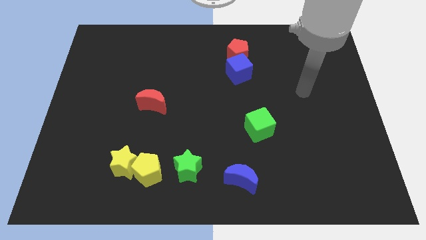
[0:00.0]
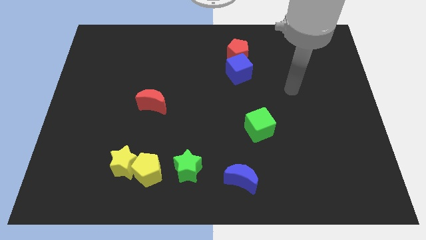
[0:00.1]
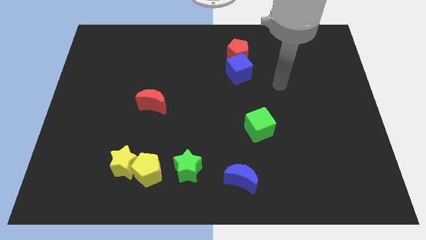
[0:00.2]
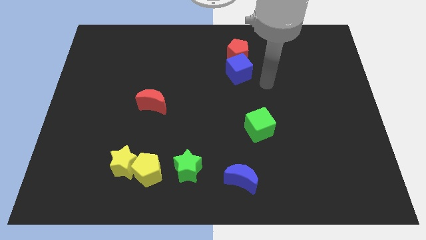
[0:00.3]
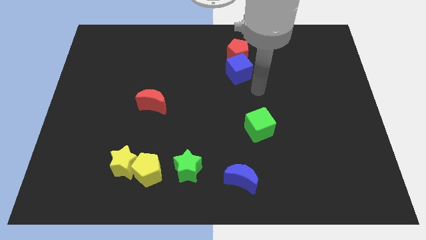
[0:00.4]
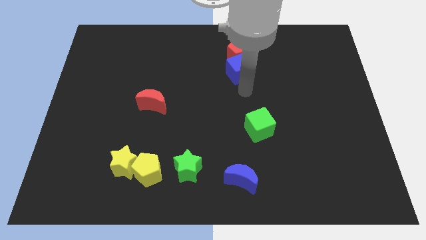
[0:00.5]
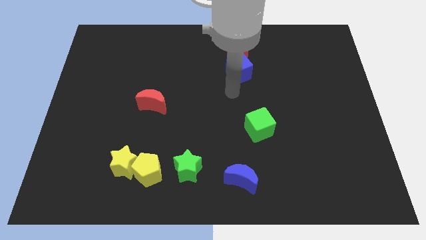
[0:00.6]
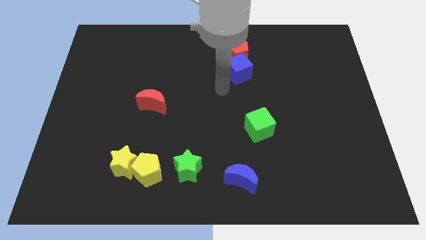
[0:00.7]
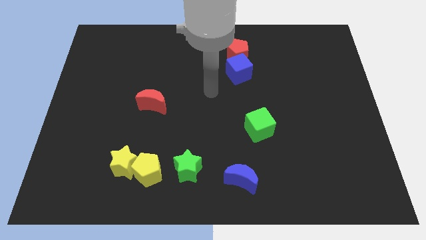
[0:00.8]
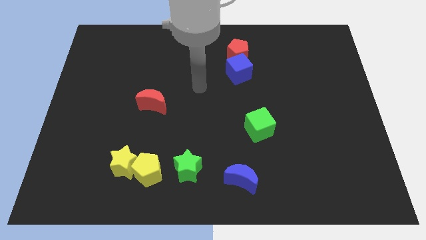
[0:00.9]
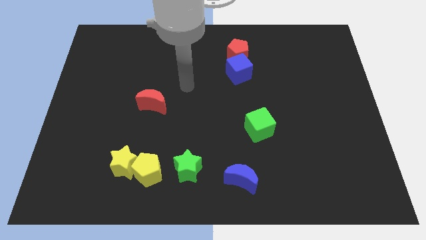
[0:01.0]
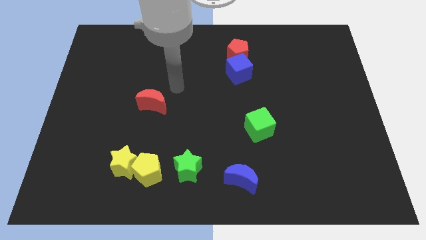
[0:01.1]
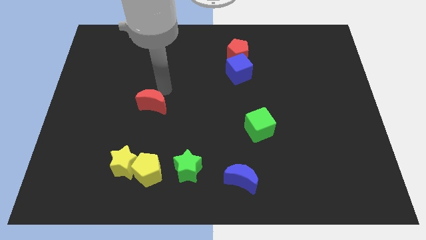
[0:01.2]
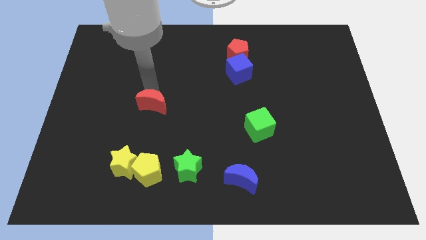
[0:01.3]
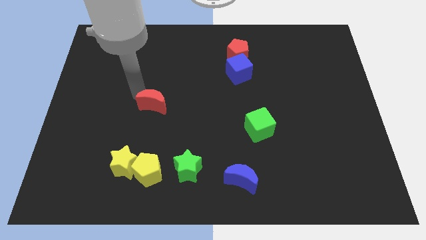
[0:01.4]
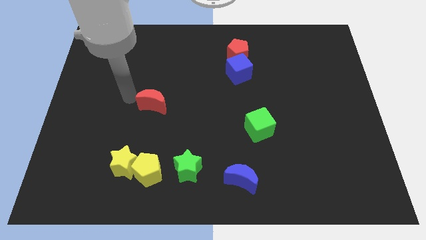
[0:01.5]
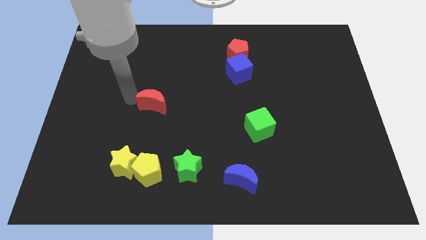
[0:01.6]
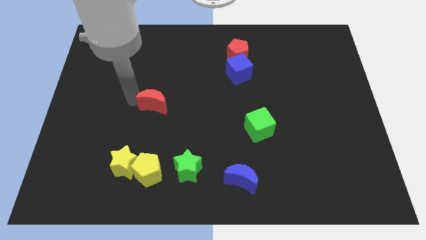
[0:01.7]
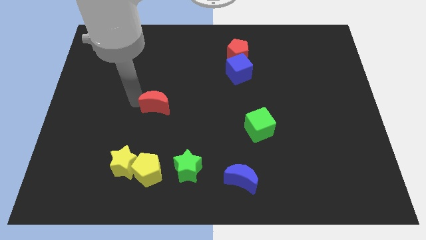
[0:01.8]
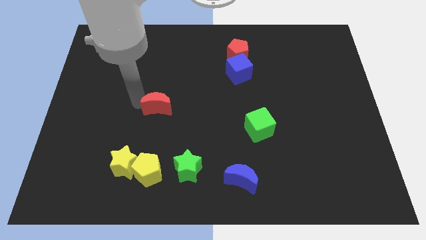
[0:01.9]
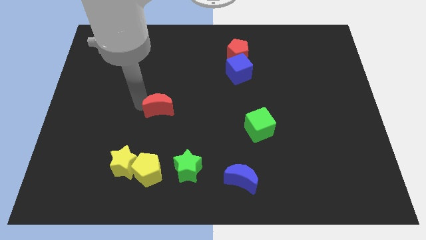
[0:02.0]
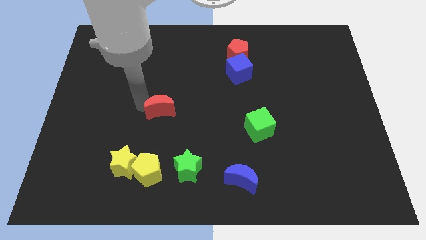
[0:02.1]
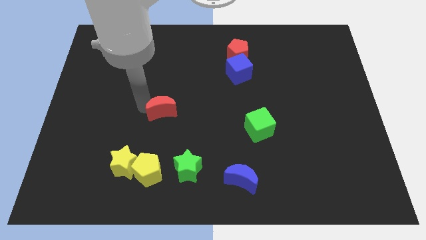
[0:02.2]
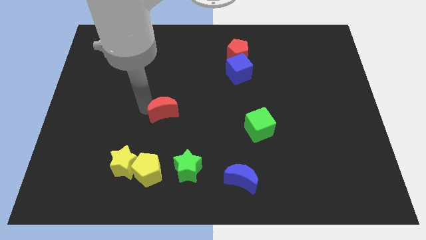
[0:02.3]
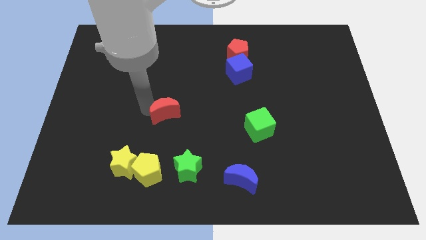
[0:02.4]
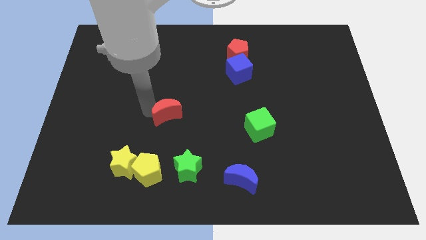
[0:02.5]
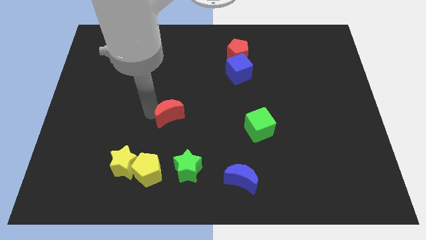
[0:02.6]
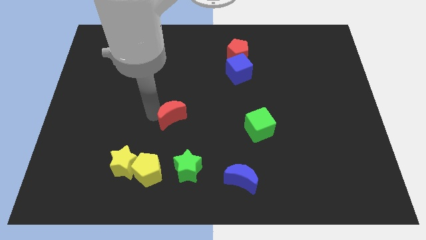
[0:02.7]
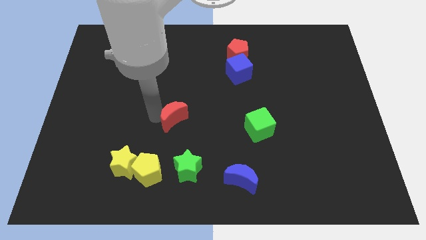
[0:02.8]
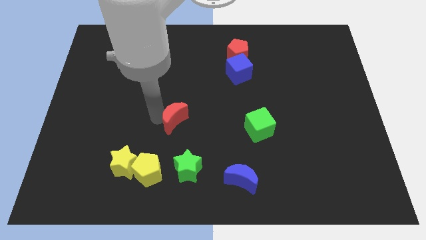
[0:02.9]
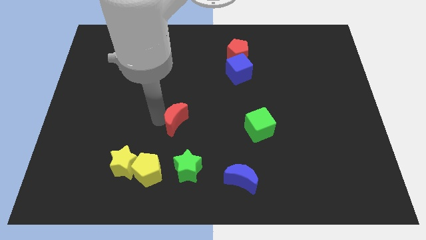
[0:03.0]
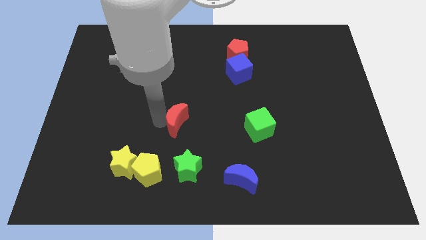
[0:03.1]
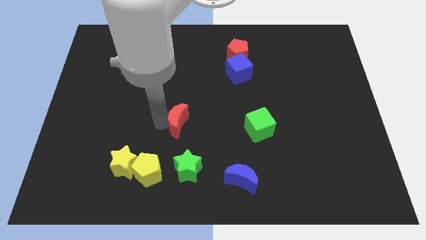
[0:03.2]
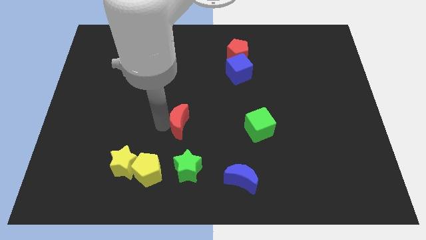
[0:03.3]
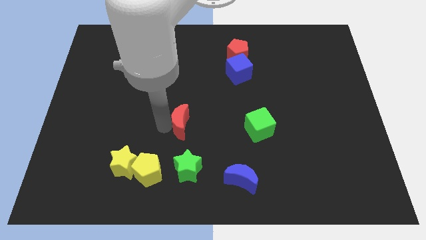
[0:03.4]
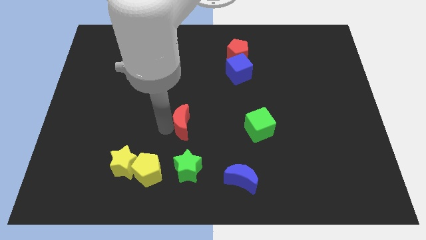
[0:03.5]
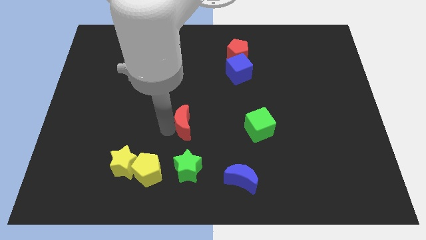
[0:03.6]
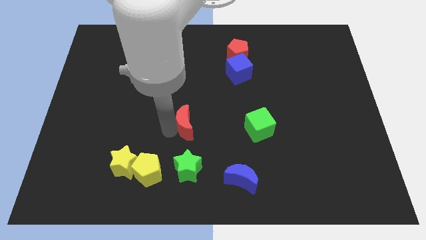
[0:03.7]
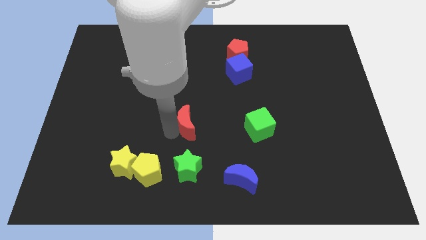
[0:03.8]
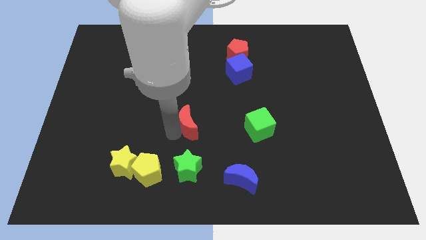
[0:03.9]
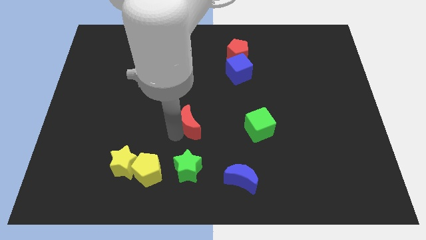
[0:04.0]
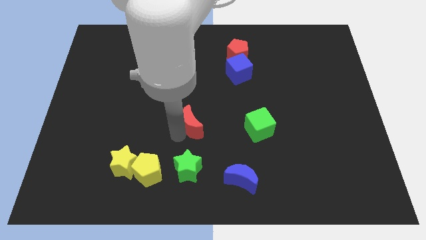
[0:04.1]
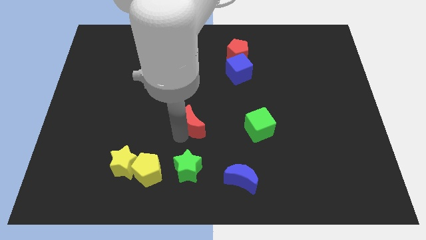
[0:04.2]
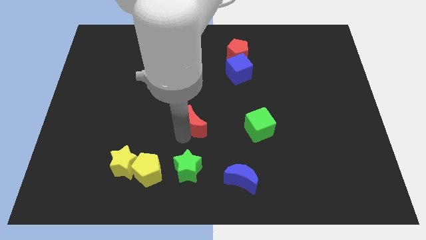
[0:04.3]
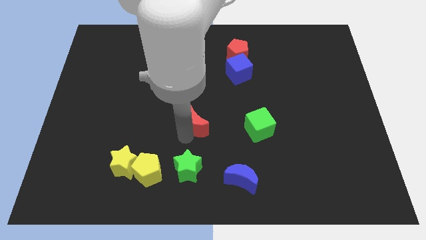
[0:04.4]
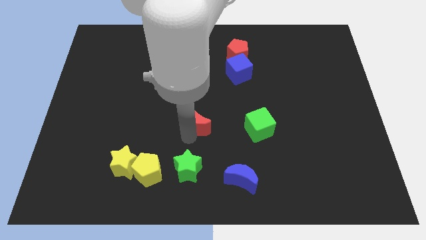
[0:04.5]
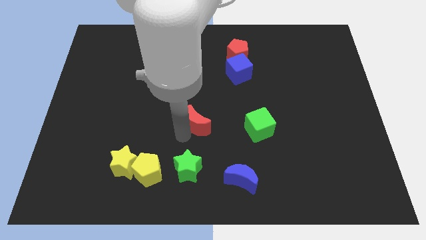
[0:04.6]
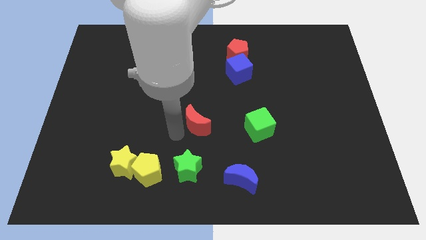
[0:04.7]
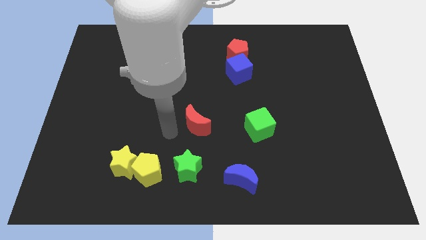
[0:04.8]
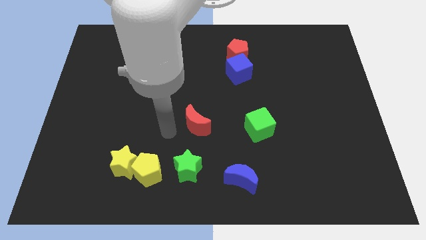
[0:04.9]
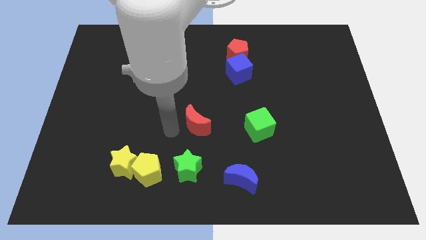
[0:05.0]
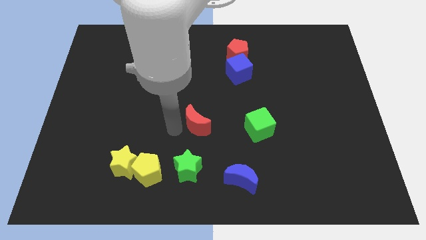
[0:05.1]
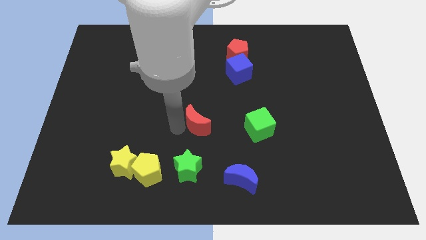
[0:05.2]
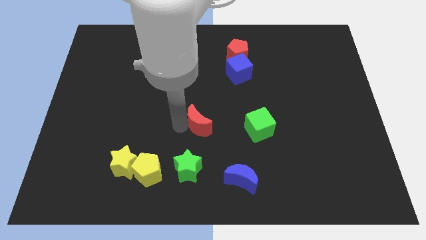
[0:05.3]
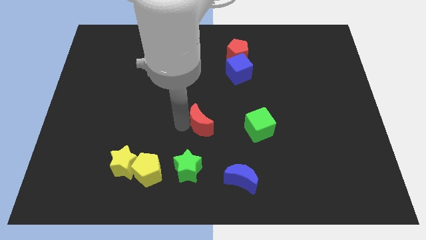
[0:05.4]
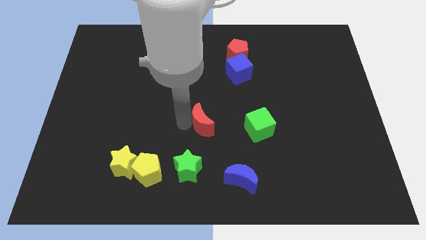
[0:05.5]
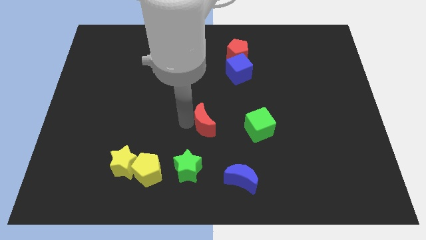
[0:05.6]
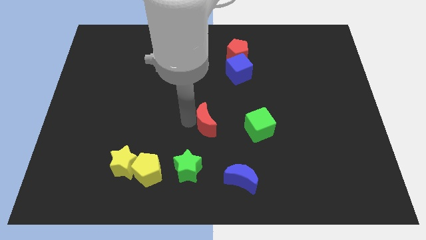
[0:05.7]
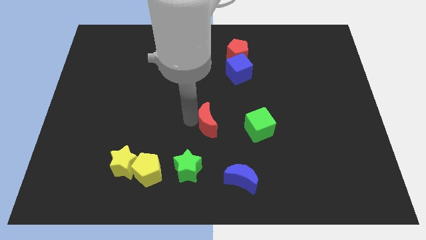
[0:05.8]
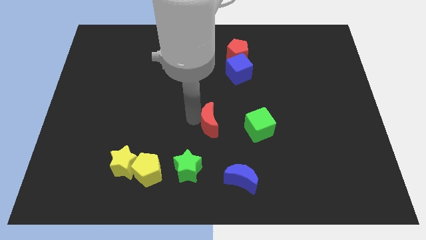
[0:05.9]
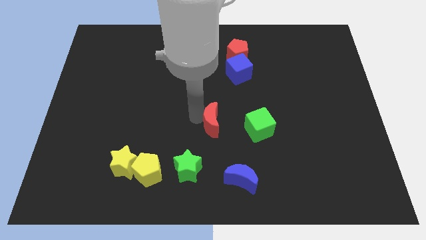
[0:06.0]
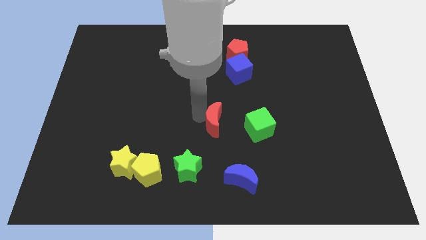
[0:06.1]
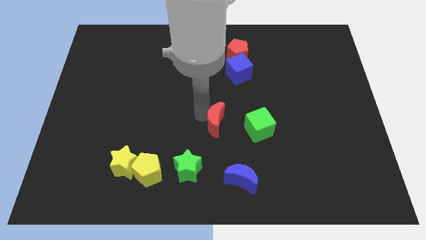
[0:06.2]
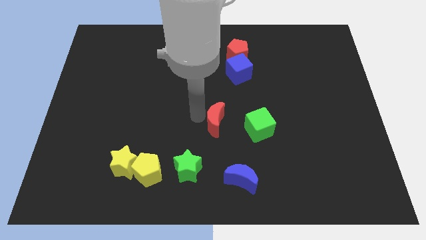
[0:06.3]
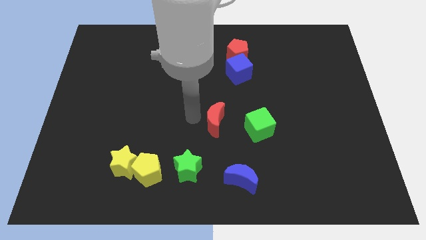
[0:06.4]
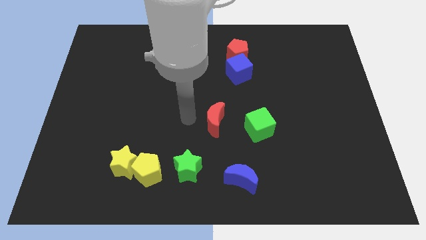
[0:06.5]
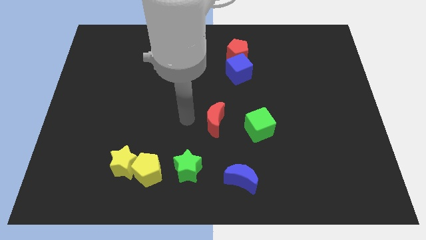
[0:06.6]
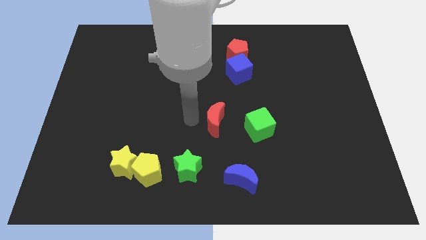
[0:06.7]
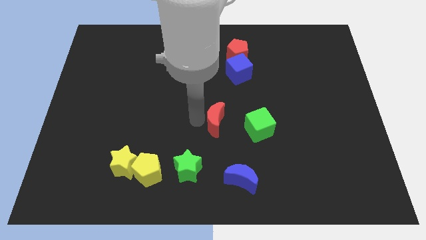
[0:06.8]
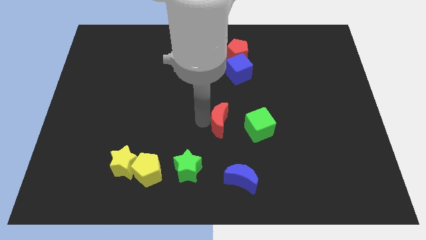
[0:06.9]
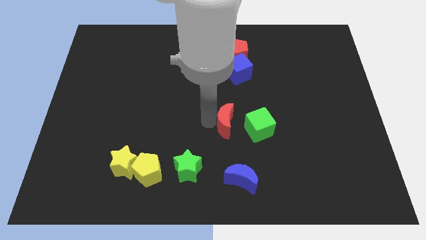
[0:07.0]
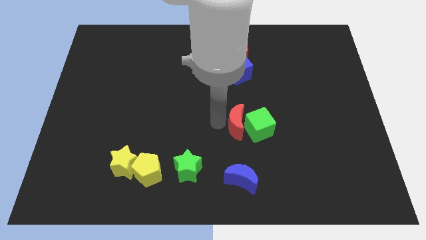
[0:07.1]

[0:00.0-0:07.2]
move the red moon to the green cube

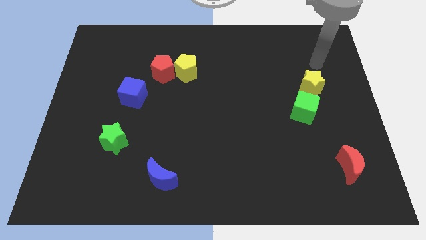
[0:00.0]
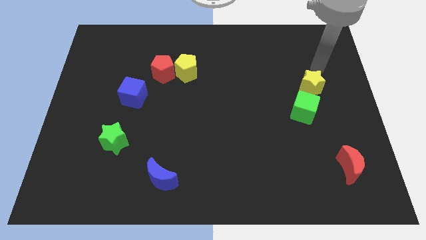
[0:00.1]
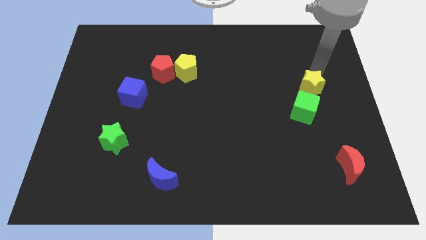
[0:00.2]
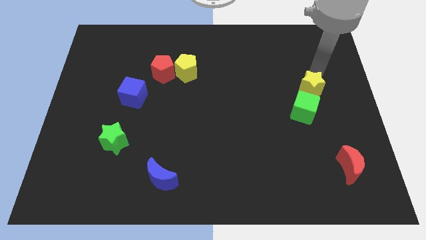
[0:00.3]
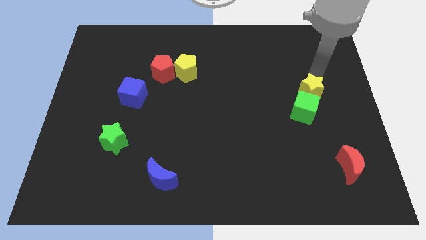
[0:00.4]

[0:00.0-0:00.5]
slide the yellow star close to the green cube
